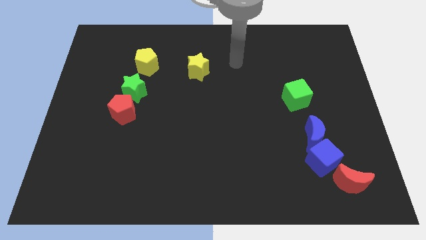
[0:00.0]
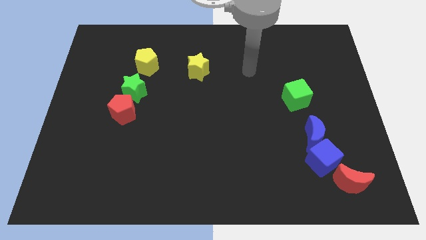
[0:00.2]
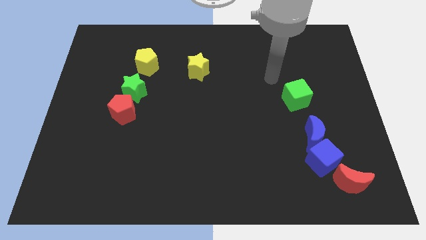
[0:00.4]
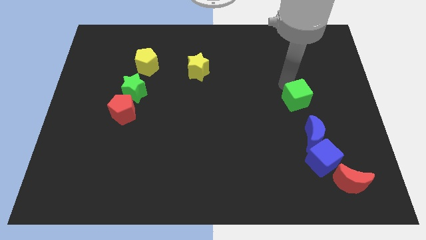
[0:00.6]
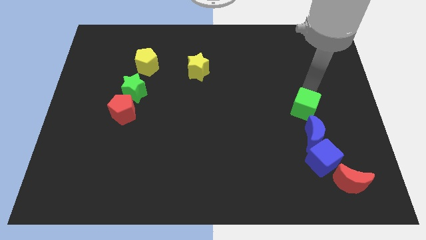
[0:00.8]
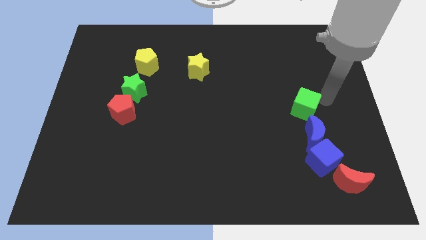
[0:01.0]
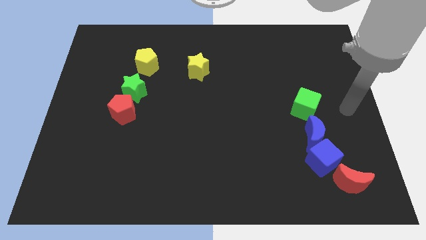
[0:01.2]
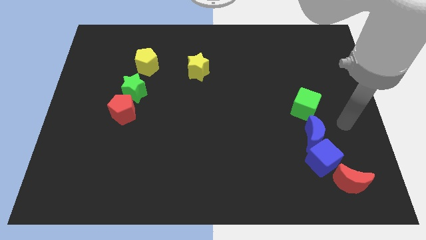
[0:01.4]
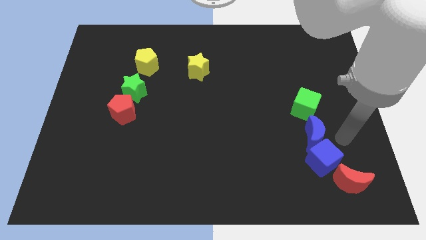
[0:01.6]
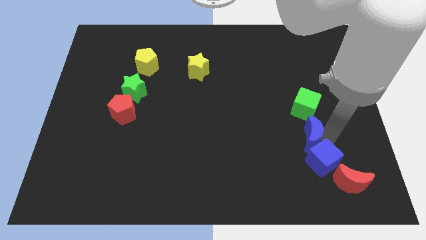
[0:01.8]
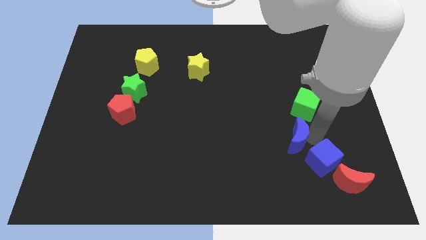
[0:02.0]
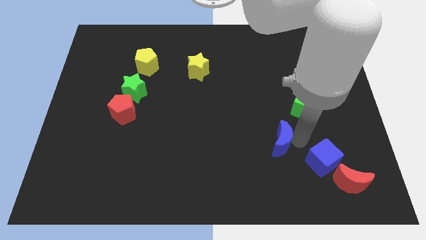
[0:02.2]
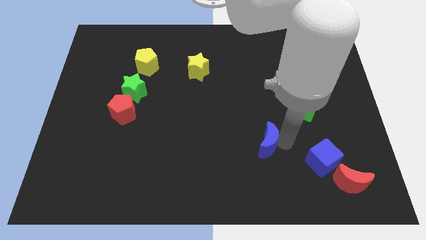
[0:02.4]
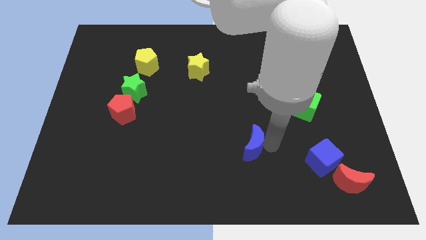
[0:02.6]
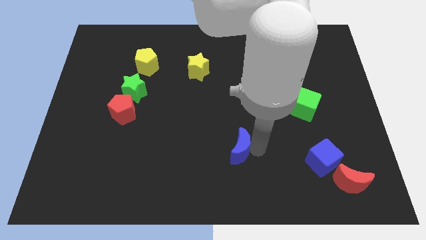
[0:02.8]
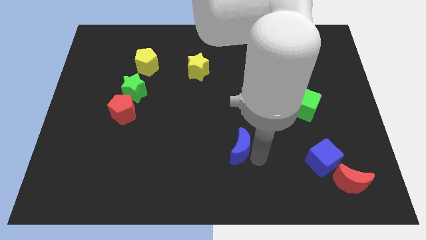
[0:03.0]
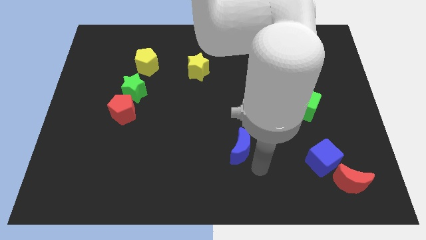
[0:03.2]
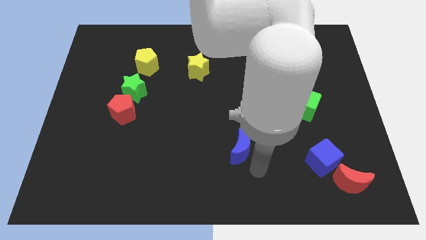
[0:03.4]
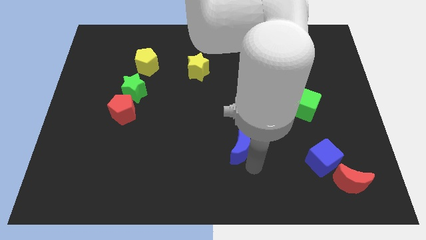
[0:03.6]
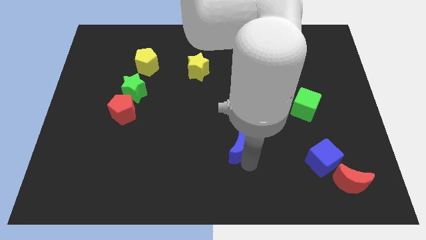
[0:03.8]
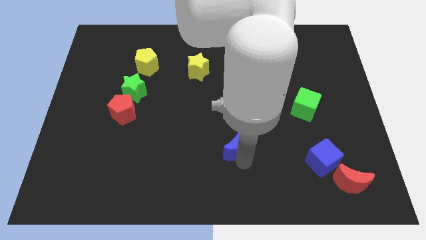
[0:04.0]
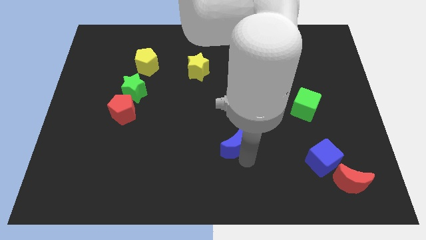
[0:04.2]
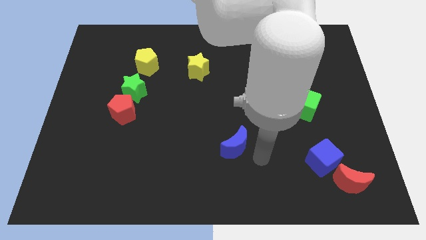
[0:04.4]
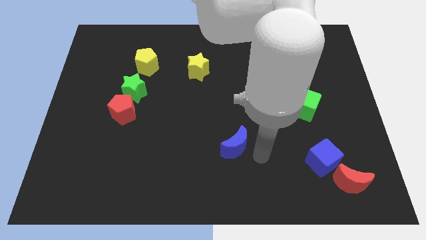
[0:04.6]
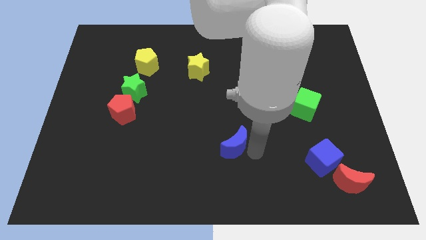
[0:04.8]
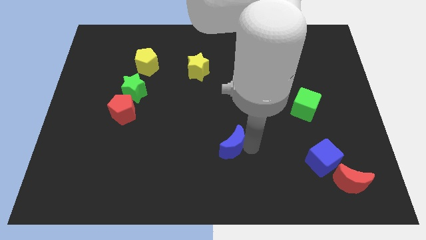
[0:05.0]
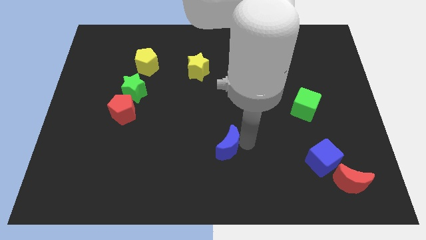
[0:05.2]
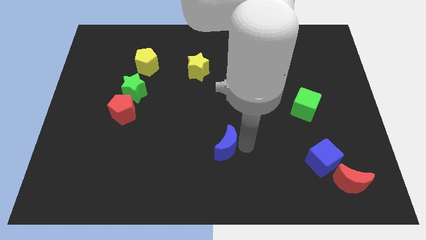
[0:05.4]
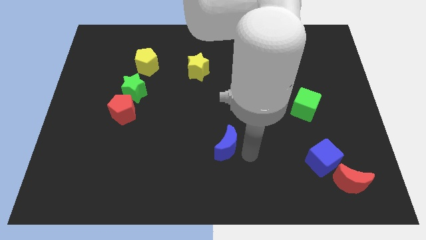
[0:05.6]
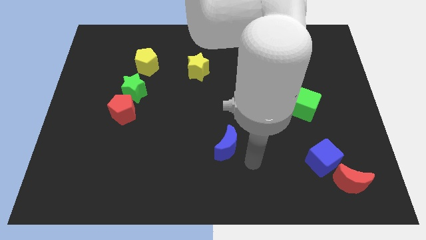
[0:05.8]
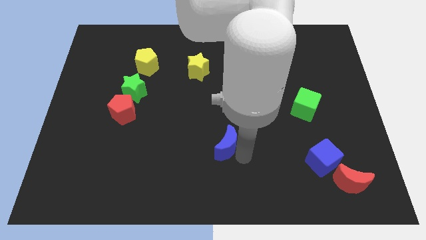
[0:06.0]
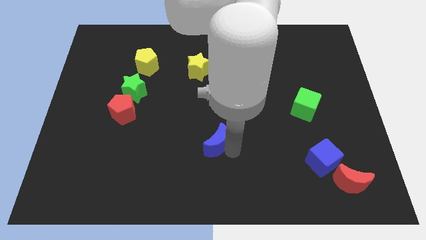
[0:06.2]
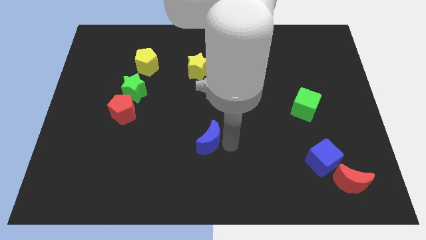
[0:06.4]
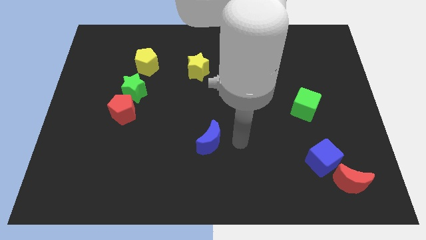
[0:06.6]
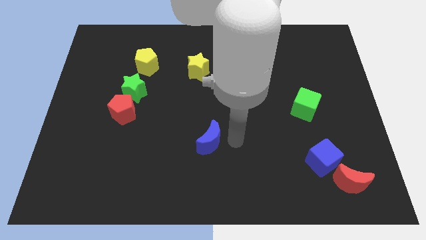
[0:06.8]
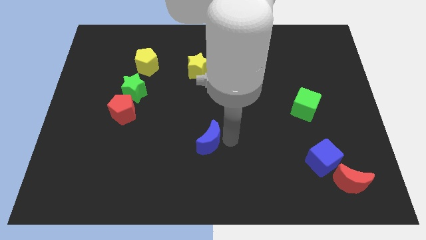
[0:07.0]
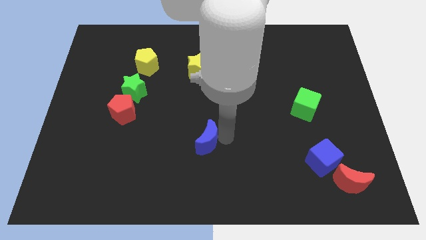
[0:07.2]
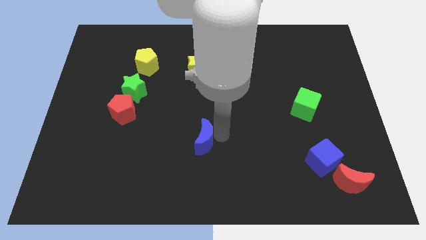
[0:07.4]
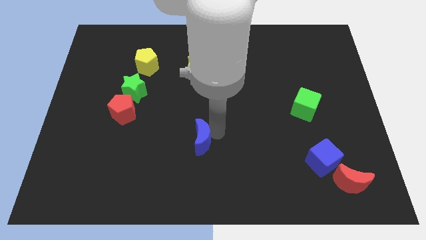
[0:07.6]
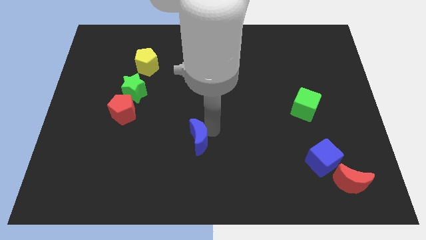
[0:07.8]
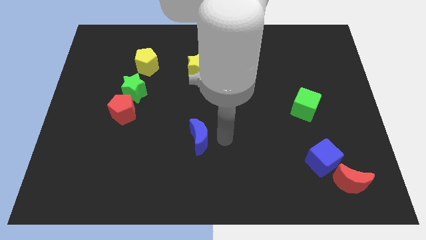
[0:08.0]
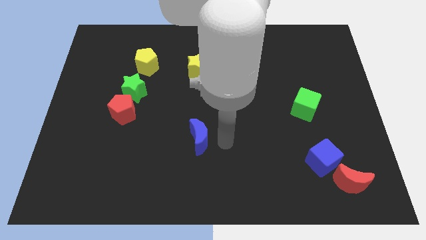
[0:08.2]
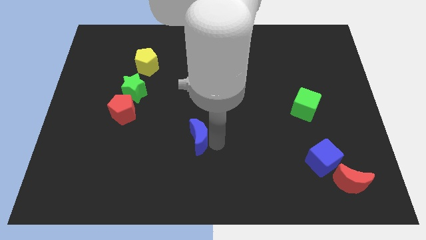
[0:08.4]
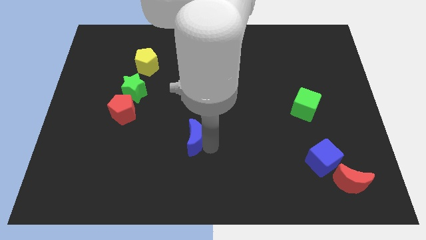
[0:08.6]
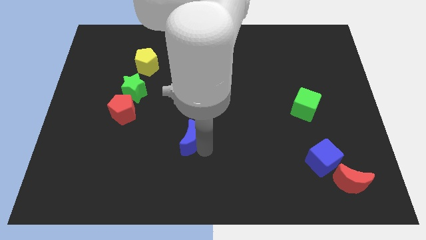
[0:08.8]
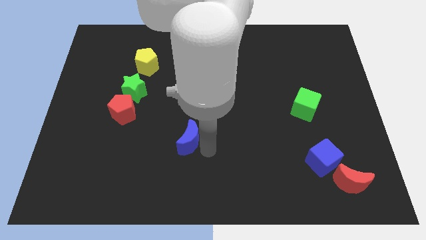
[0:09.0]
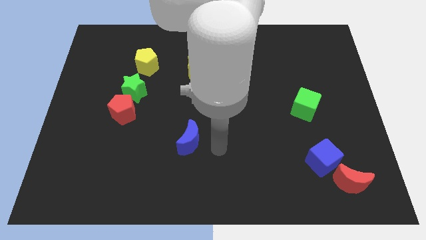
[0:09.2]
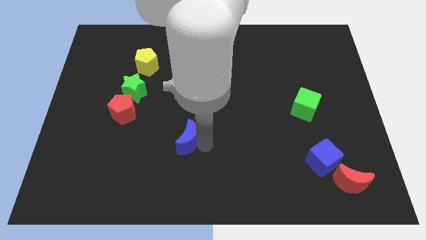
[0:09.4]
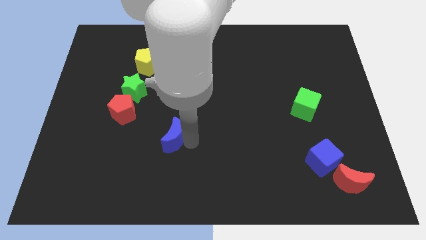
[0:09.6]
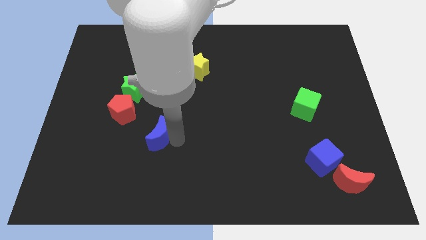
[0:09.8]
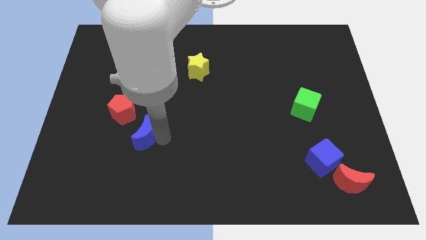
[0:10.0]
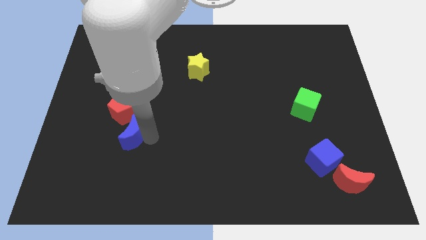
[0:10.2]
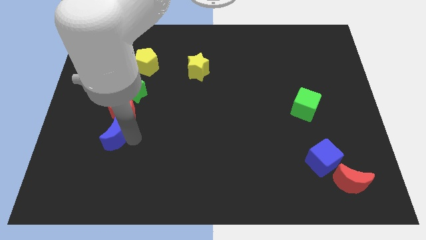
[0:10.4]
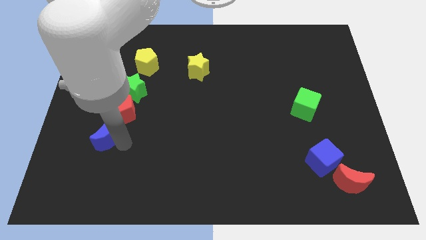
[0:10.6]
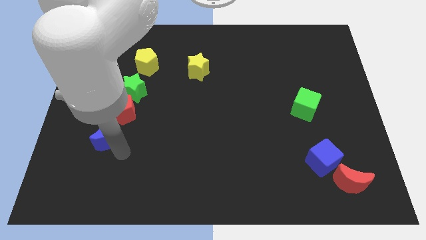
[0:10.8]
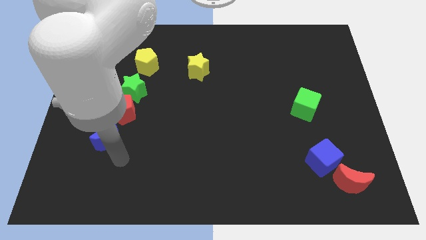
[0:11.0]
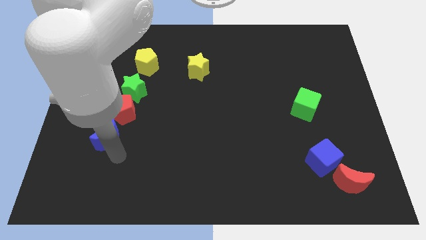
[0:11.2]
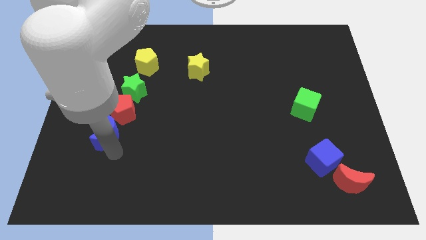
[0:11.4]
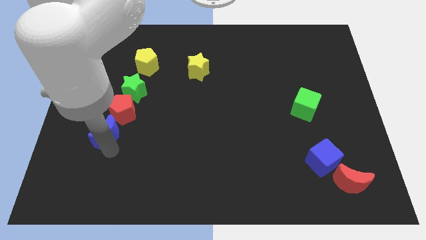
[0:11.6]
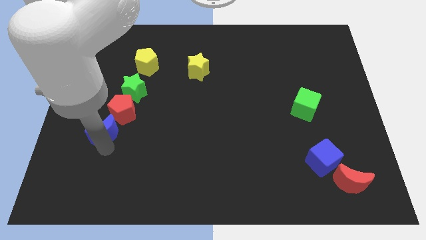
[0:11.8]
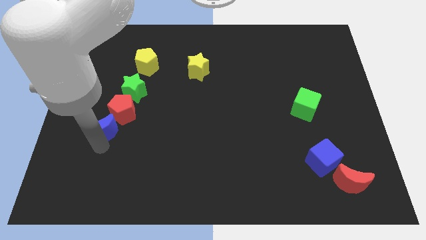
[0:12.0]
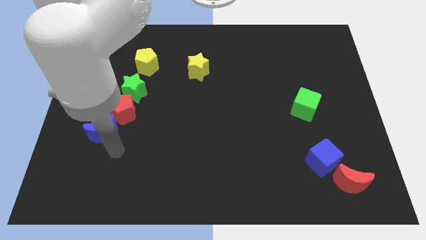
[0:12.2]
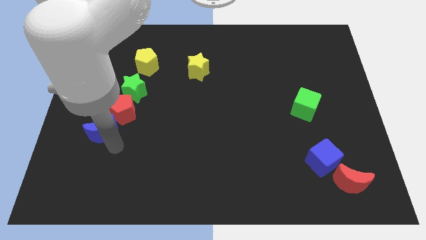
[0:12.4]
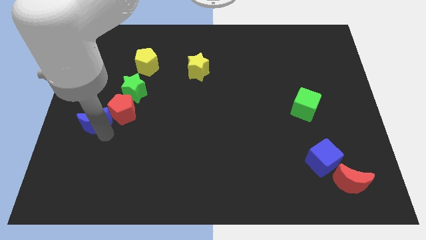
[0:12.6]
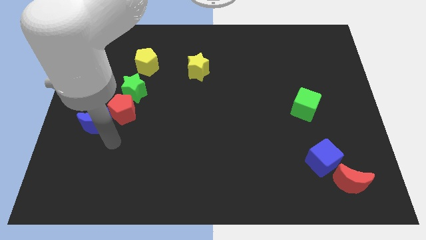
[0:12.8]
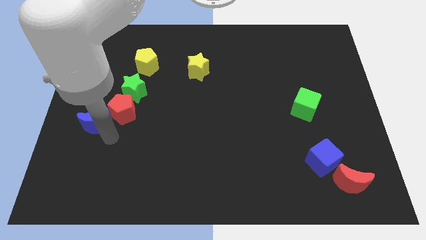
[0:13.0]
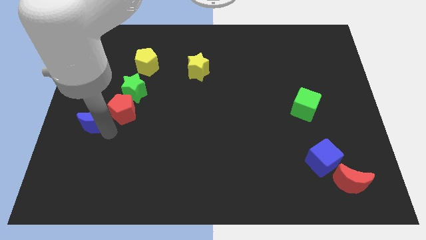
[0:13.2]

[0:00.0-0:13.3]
move the blue moon to the center left
